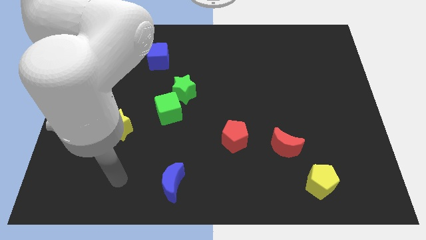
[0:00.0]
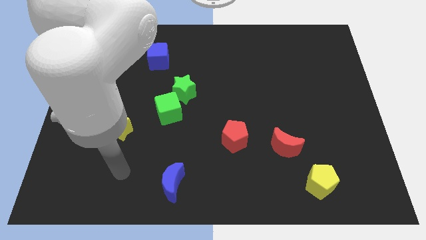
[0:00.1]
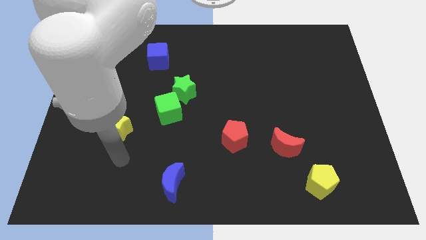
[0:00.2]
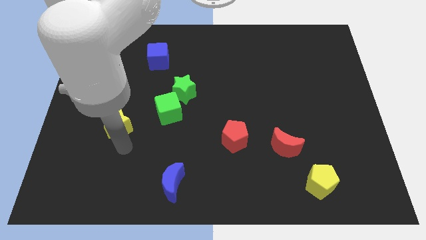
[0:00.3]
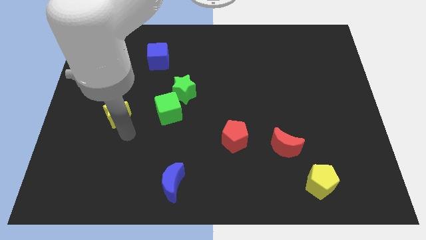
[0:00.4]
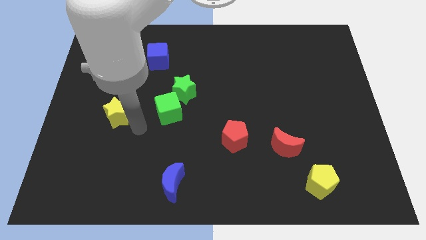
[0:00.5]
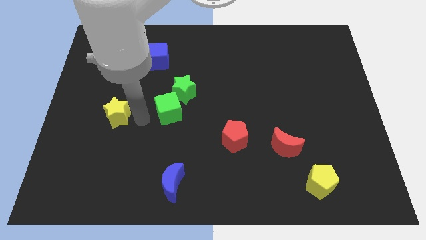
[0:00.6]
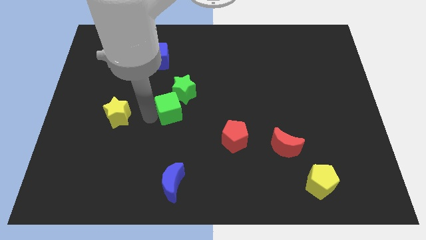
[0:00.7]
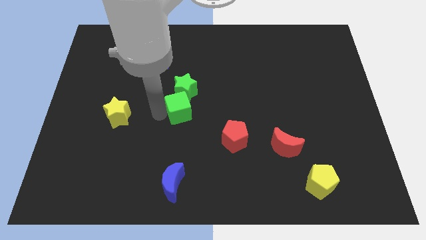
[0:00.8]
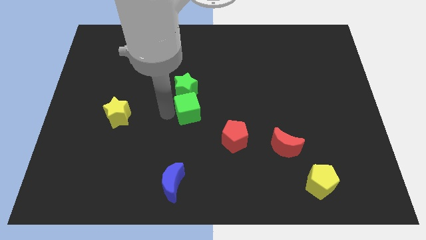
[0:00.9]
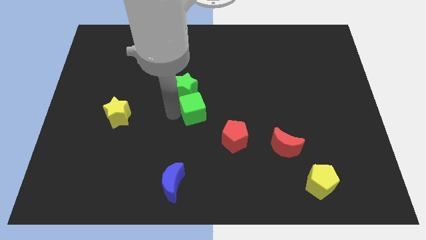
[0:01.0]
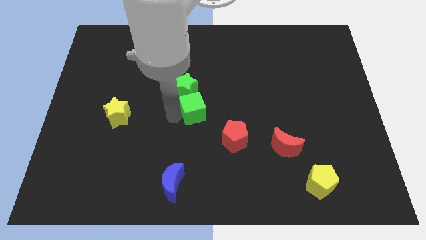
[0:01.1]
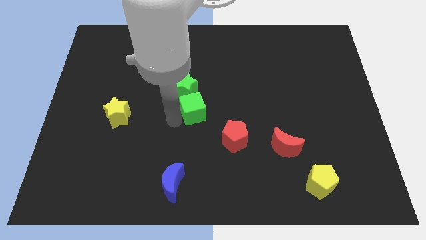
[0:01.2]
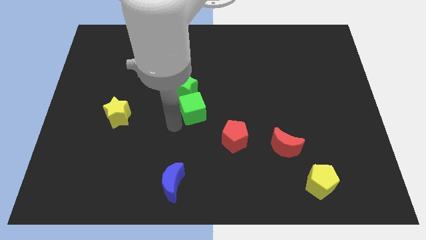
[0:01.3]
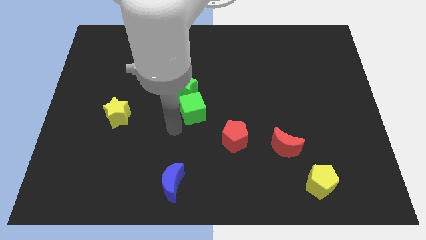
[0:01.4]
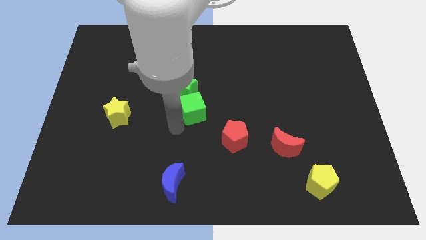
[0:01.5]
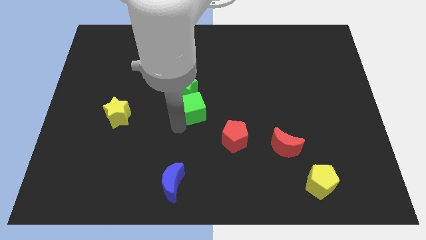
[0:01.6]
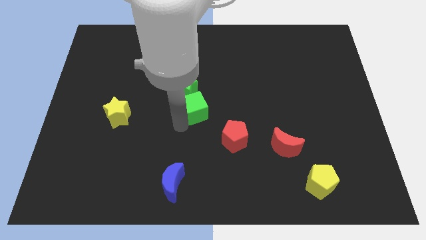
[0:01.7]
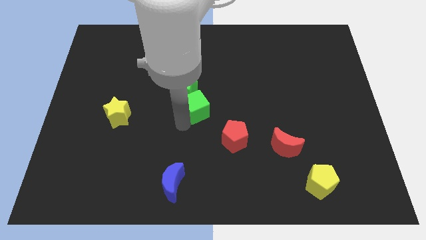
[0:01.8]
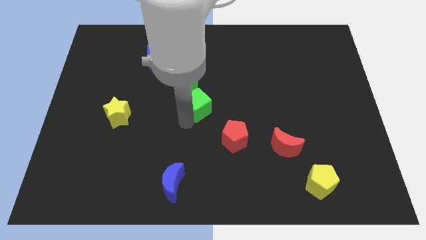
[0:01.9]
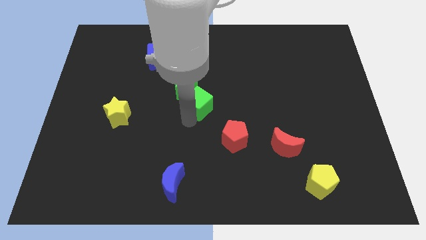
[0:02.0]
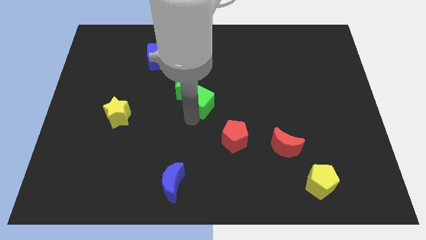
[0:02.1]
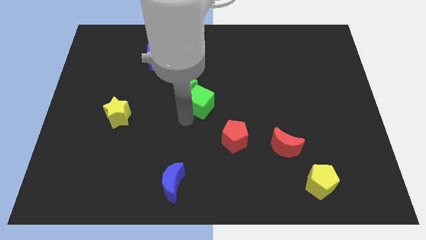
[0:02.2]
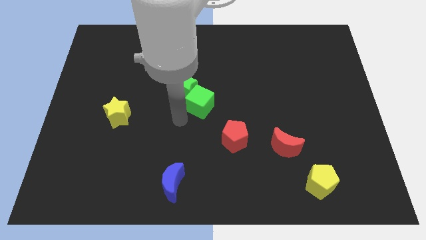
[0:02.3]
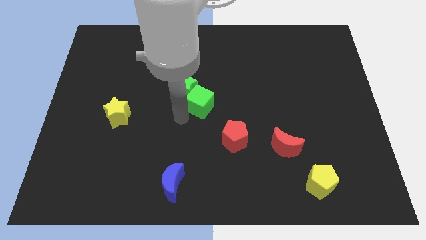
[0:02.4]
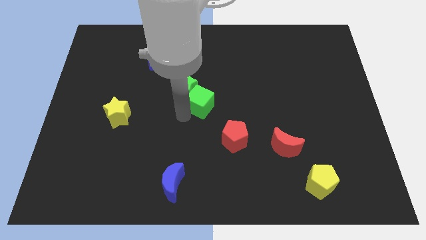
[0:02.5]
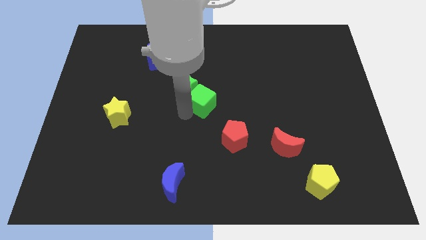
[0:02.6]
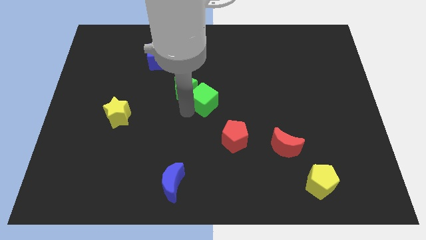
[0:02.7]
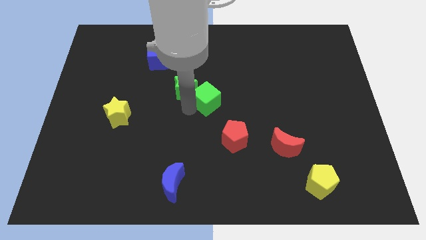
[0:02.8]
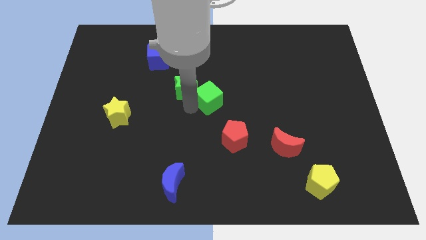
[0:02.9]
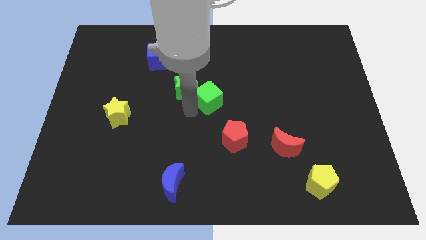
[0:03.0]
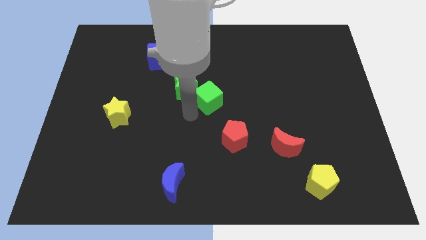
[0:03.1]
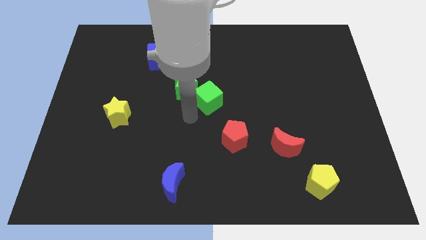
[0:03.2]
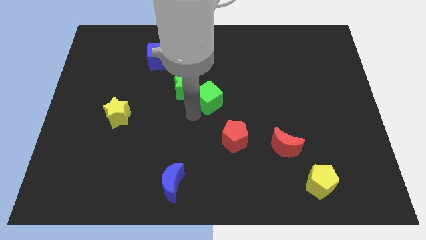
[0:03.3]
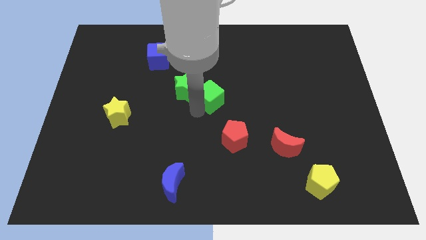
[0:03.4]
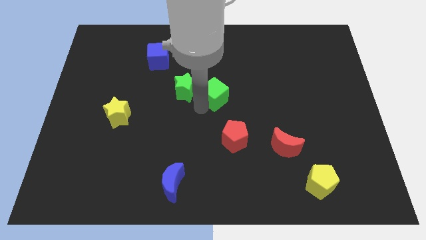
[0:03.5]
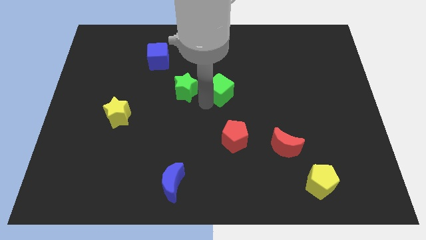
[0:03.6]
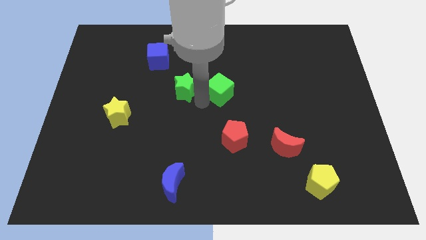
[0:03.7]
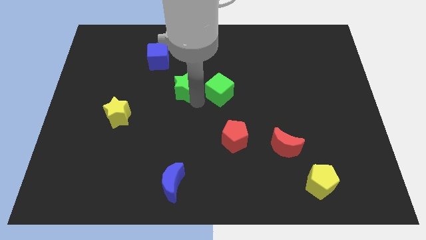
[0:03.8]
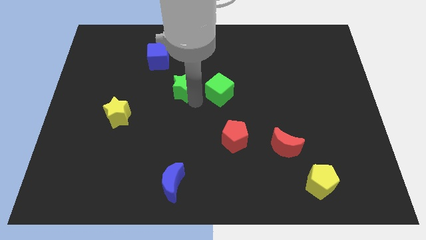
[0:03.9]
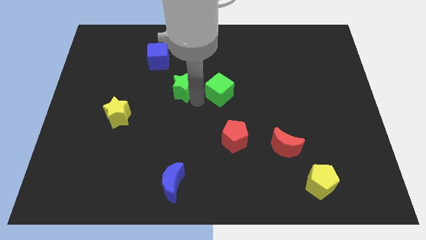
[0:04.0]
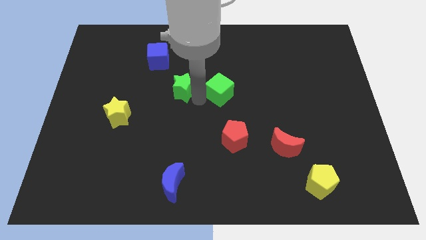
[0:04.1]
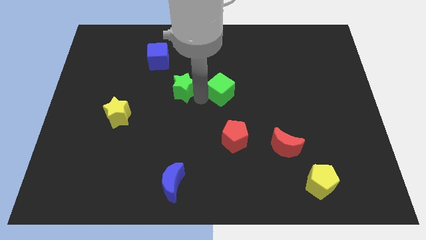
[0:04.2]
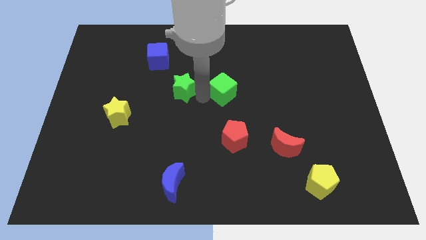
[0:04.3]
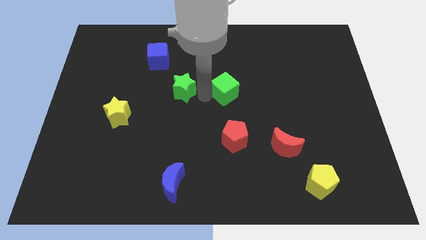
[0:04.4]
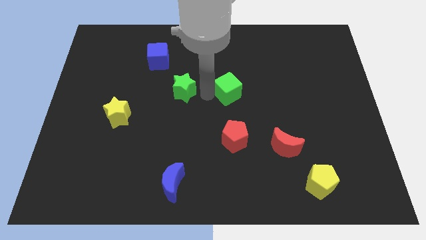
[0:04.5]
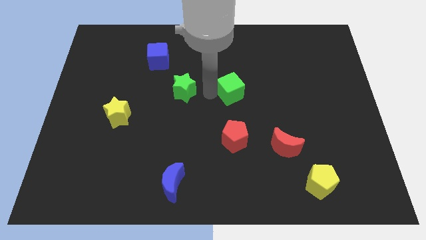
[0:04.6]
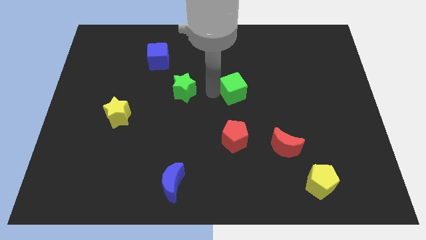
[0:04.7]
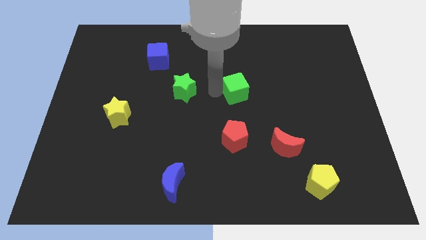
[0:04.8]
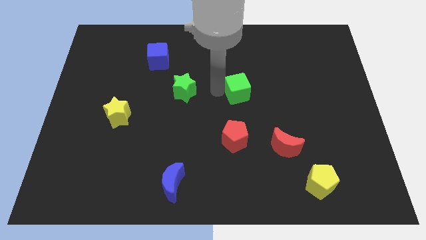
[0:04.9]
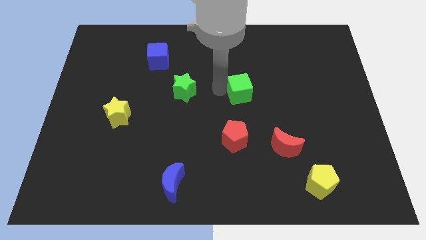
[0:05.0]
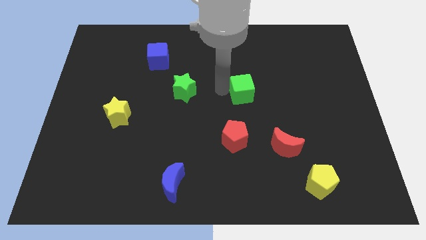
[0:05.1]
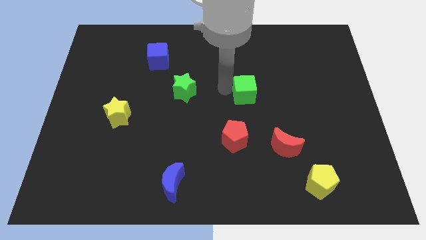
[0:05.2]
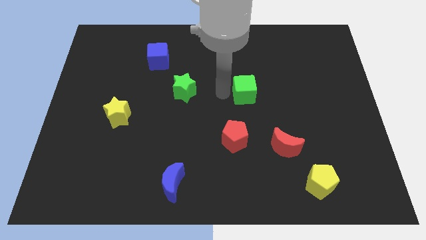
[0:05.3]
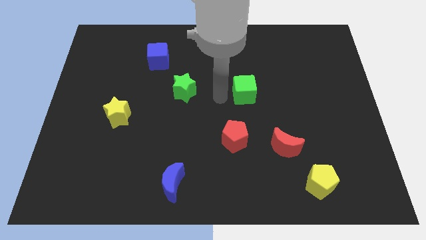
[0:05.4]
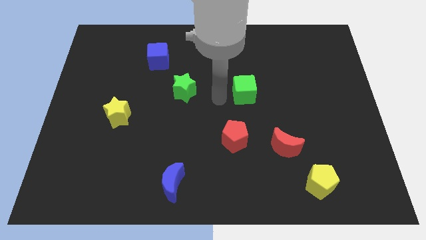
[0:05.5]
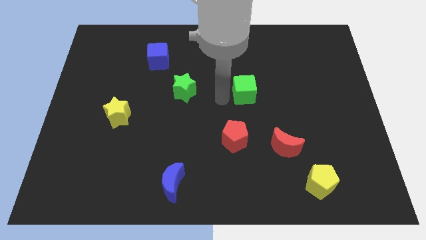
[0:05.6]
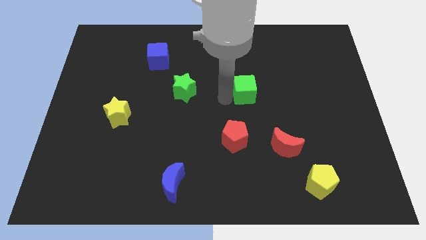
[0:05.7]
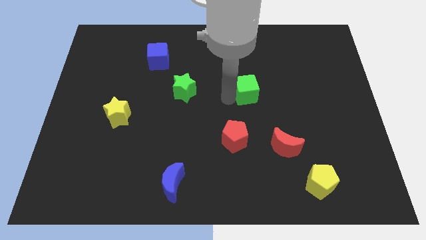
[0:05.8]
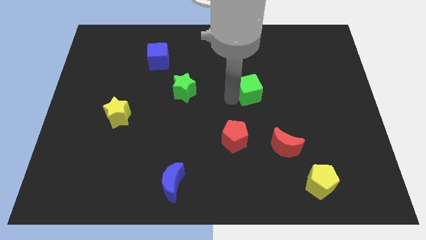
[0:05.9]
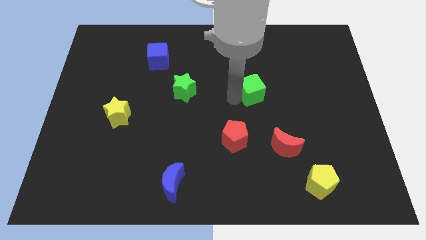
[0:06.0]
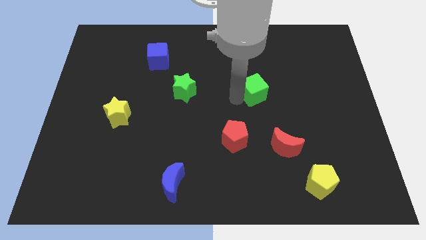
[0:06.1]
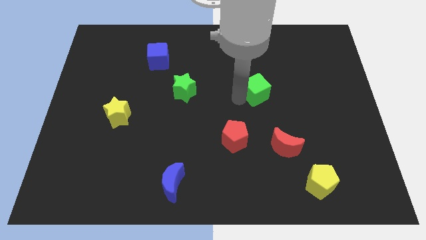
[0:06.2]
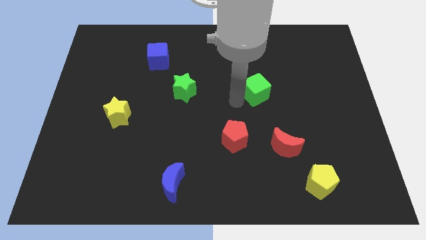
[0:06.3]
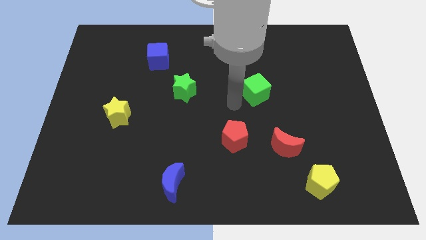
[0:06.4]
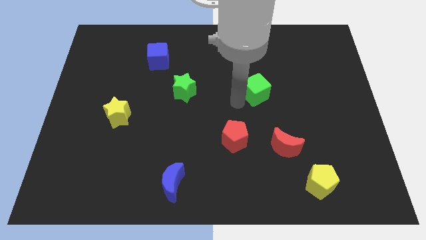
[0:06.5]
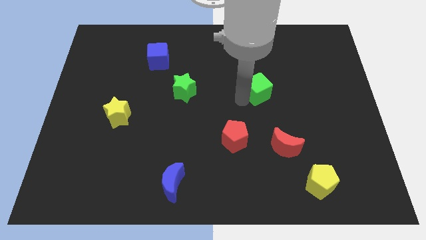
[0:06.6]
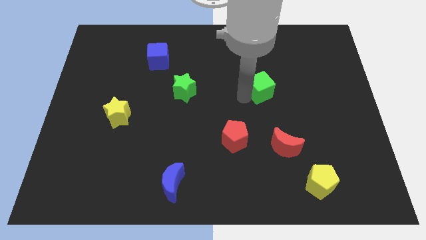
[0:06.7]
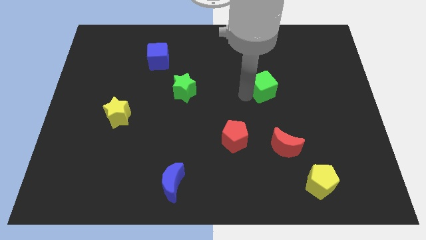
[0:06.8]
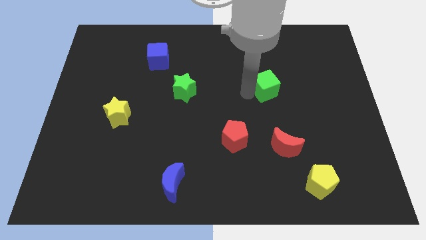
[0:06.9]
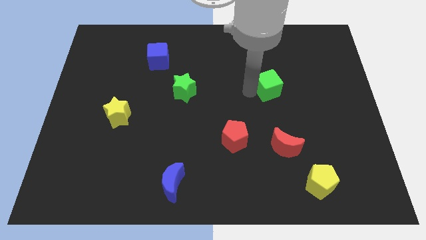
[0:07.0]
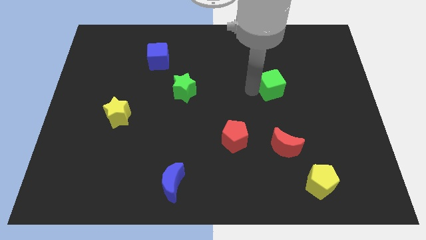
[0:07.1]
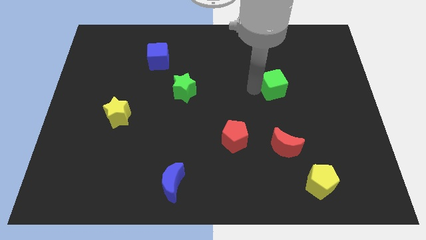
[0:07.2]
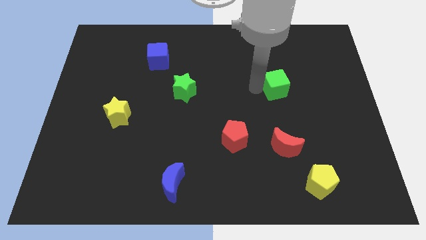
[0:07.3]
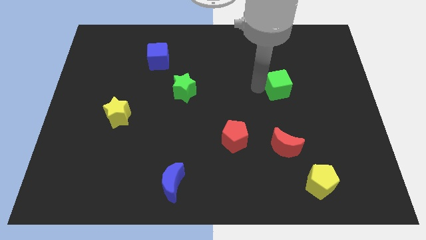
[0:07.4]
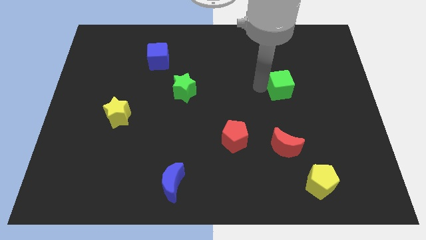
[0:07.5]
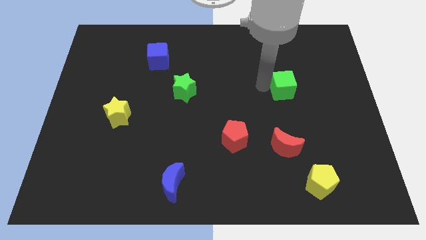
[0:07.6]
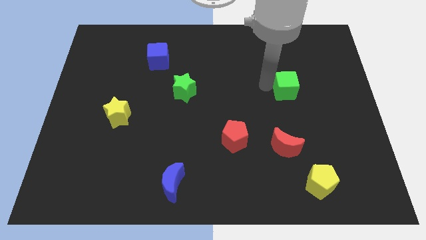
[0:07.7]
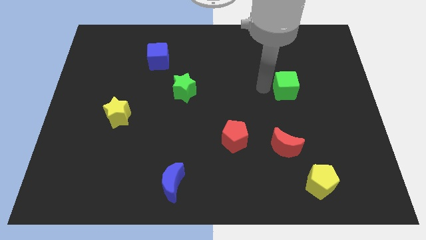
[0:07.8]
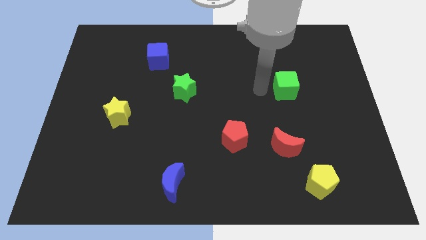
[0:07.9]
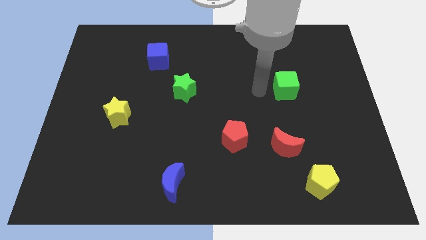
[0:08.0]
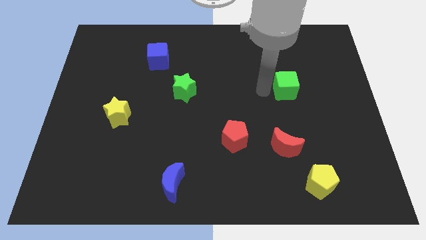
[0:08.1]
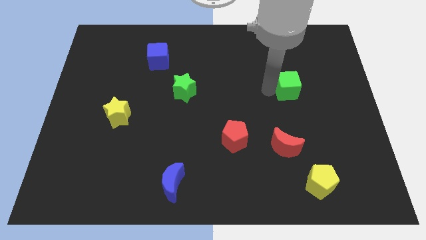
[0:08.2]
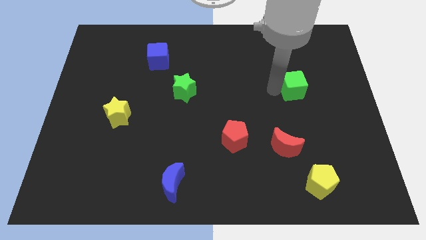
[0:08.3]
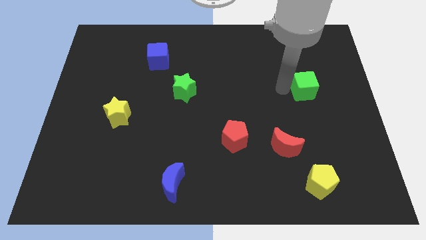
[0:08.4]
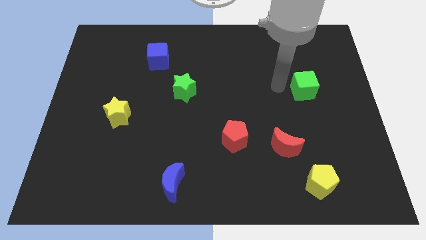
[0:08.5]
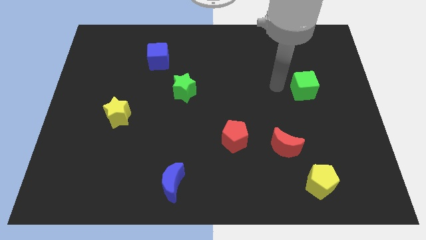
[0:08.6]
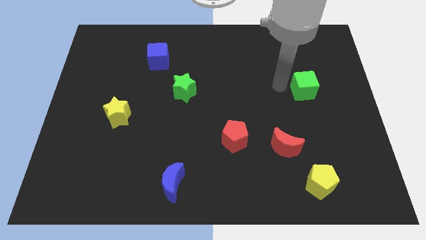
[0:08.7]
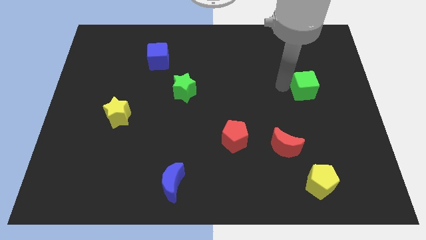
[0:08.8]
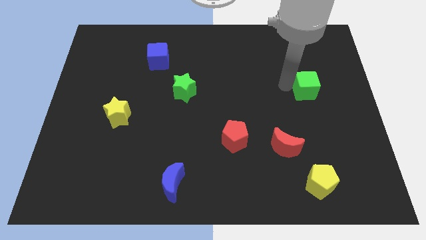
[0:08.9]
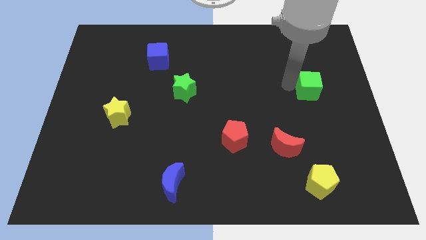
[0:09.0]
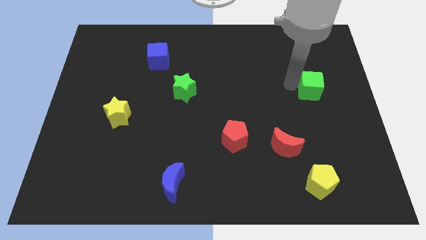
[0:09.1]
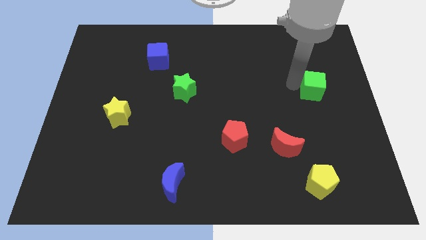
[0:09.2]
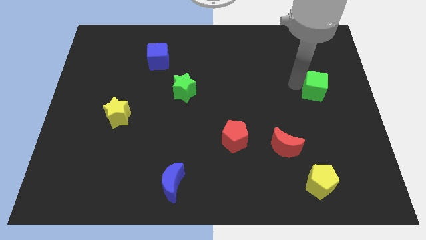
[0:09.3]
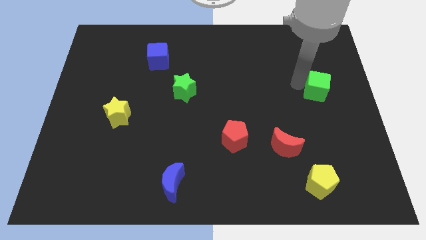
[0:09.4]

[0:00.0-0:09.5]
move the green cube to the center right
